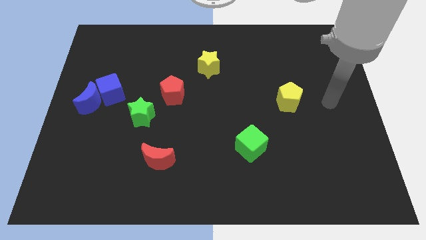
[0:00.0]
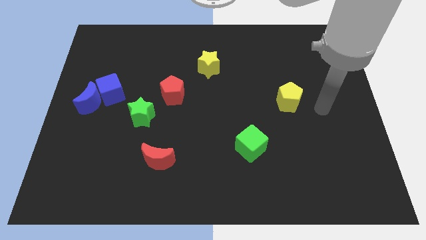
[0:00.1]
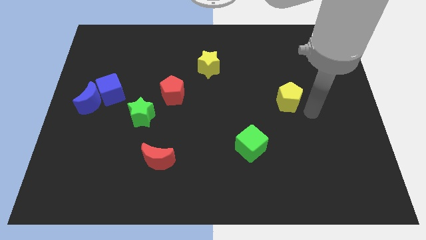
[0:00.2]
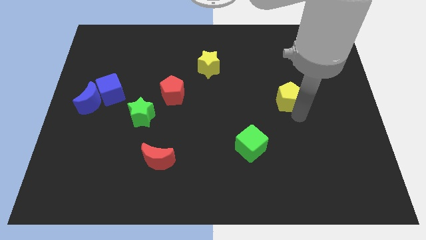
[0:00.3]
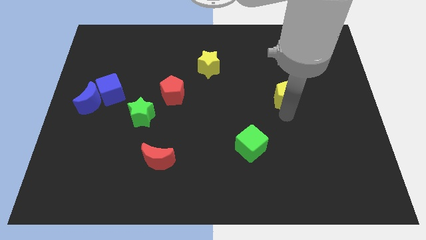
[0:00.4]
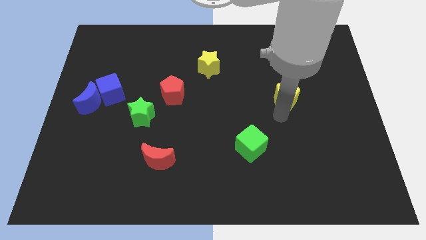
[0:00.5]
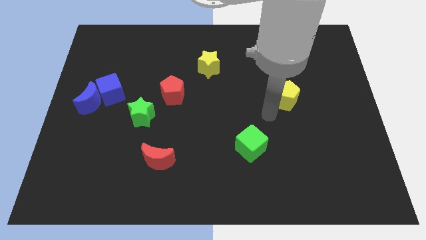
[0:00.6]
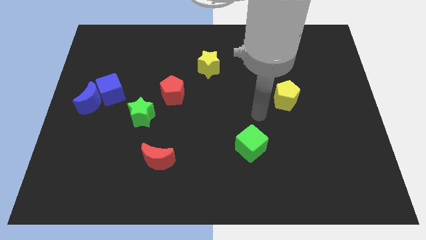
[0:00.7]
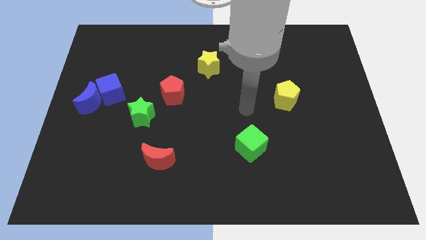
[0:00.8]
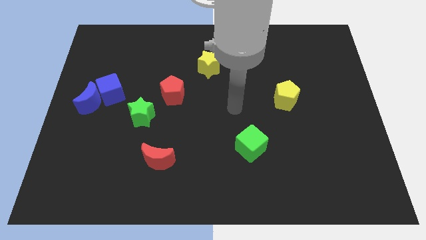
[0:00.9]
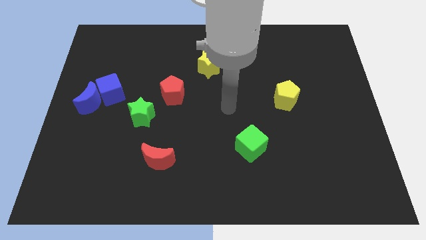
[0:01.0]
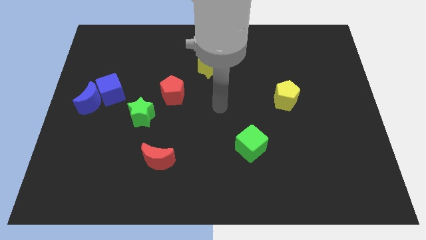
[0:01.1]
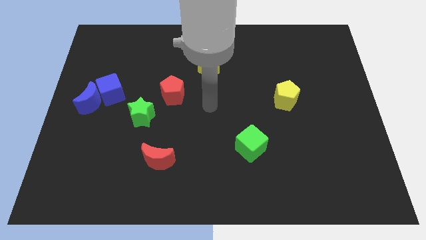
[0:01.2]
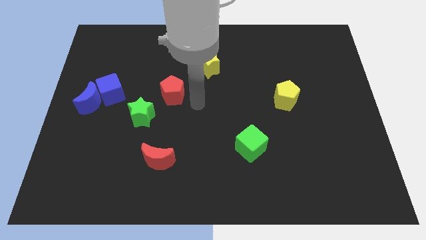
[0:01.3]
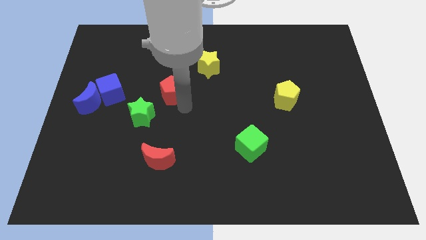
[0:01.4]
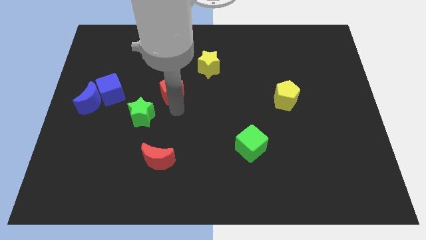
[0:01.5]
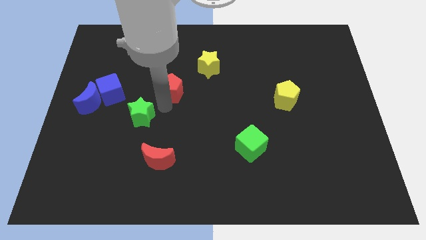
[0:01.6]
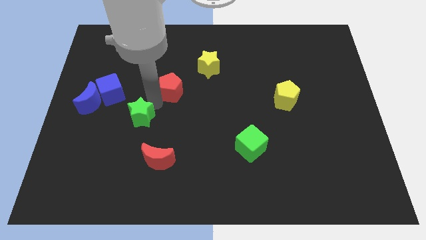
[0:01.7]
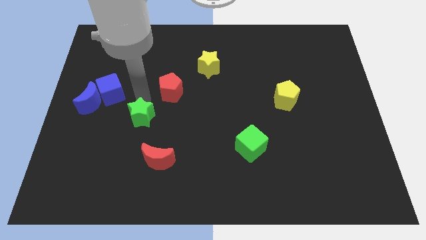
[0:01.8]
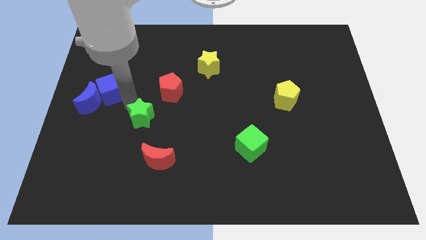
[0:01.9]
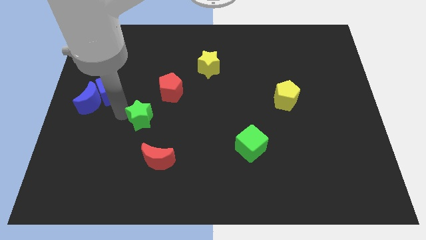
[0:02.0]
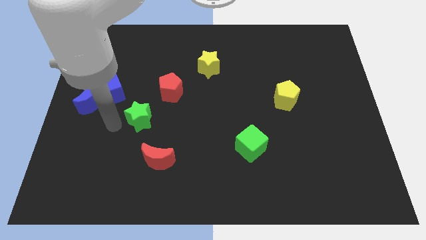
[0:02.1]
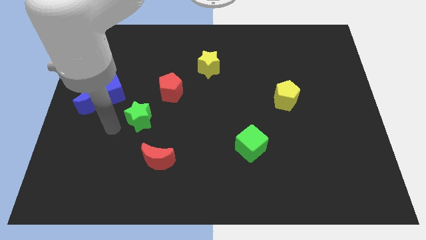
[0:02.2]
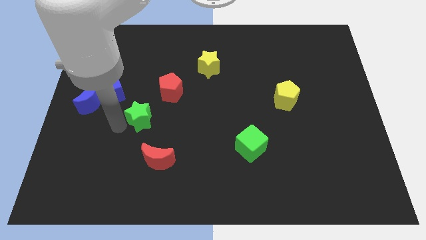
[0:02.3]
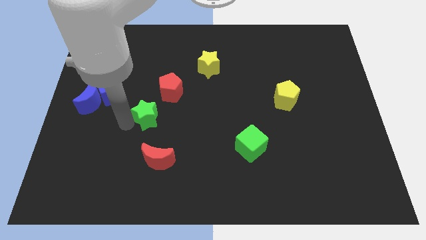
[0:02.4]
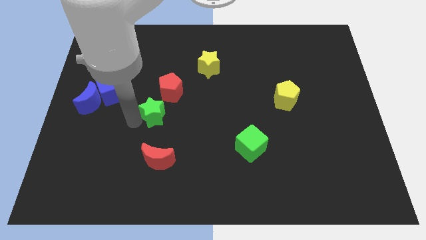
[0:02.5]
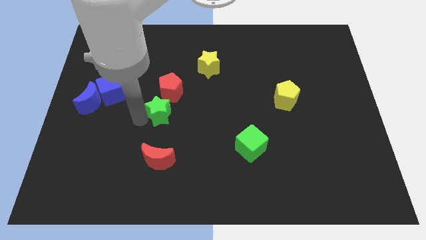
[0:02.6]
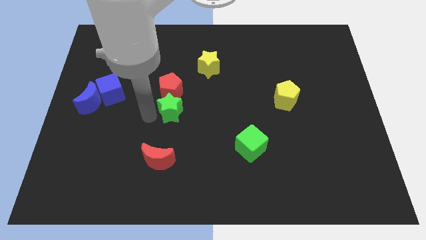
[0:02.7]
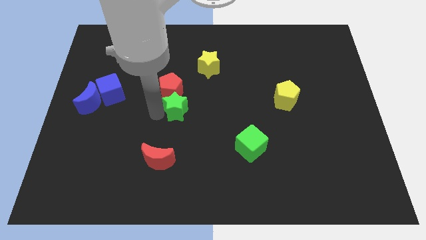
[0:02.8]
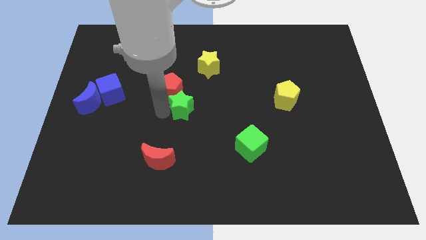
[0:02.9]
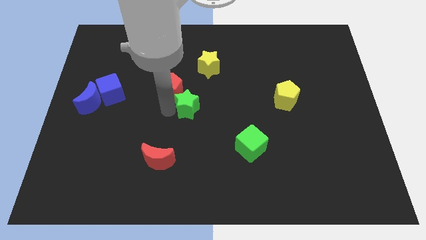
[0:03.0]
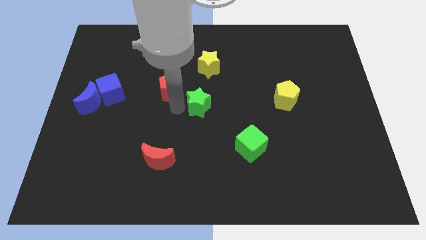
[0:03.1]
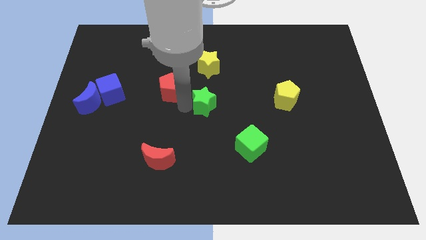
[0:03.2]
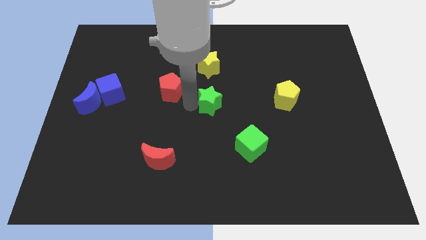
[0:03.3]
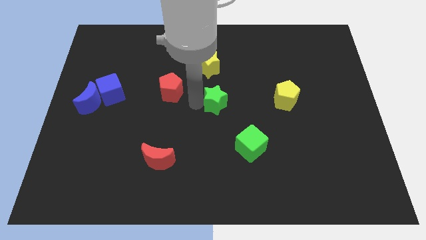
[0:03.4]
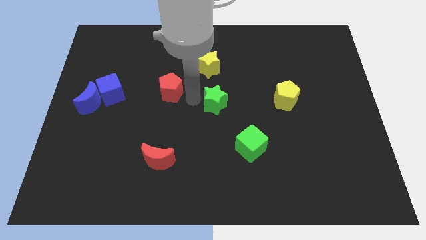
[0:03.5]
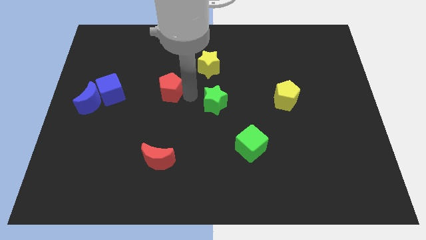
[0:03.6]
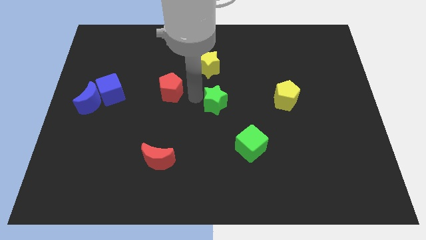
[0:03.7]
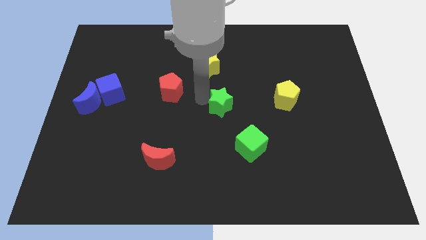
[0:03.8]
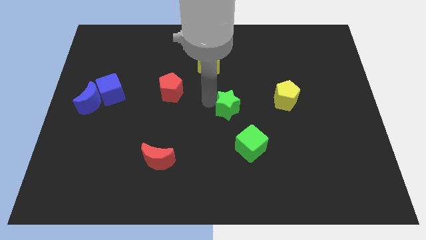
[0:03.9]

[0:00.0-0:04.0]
push the green star right

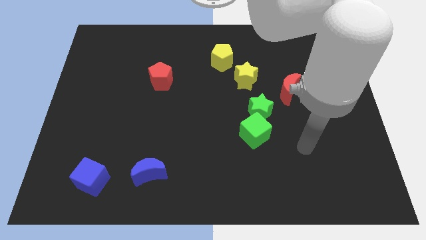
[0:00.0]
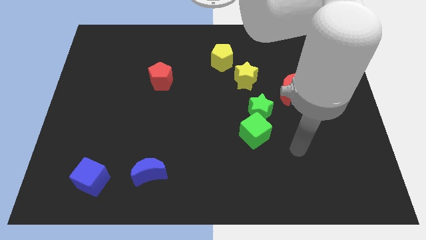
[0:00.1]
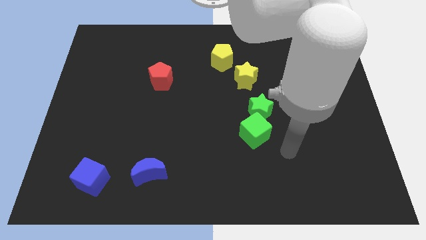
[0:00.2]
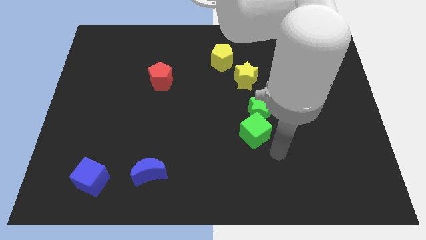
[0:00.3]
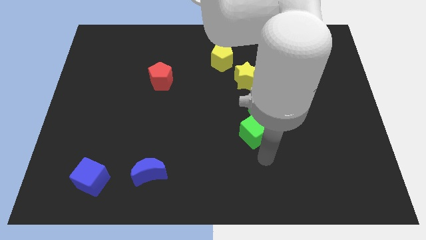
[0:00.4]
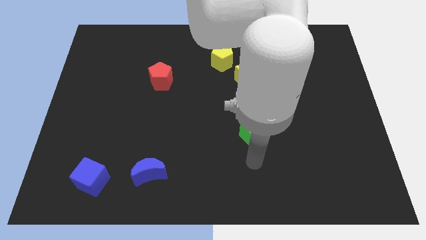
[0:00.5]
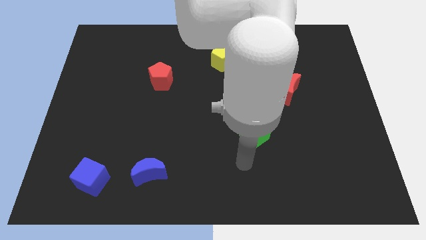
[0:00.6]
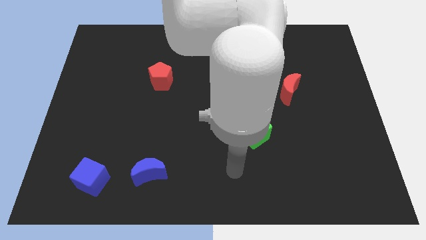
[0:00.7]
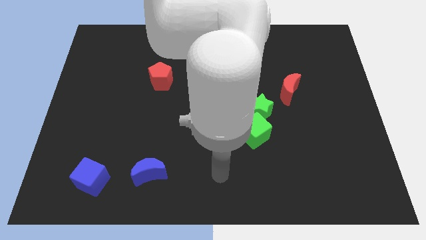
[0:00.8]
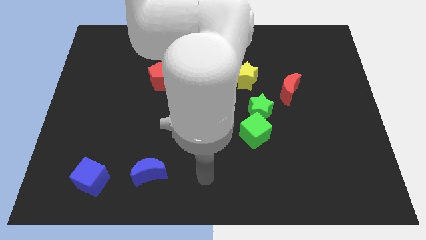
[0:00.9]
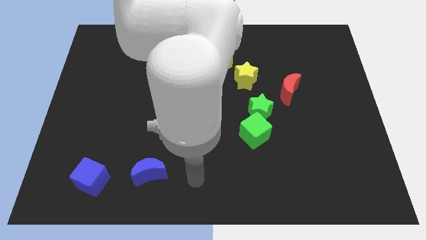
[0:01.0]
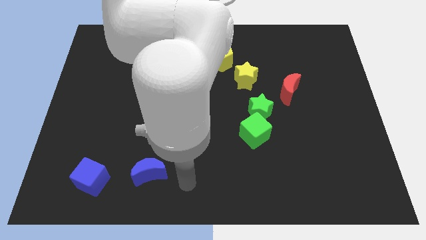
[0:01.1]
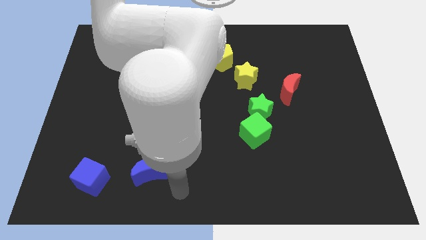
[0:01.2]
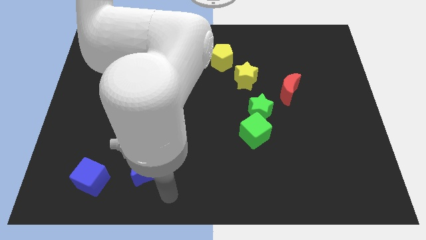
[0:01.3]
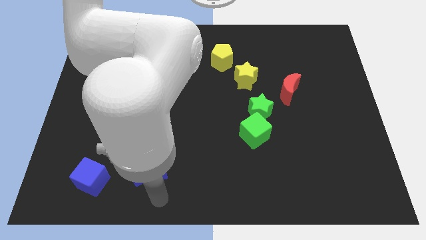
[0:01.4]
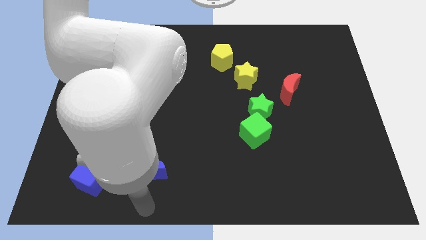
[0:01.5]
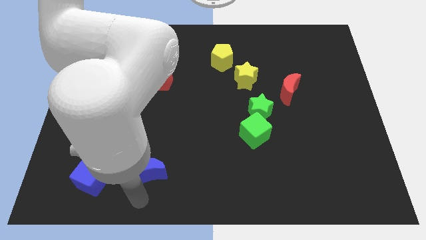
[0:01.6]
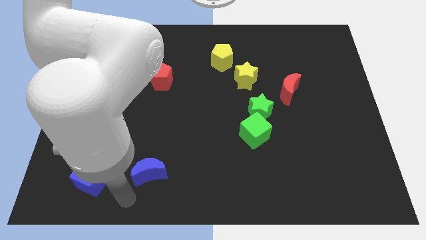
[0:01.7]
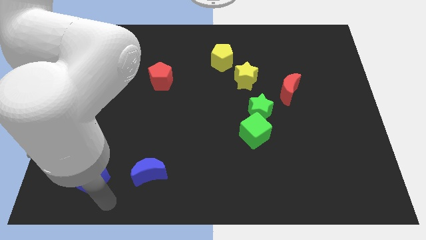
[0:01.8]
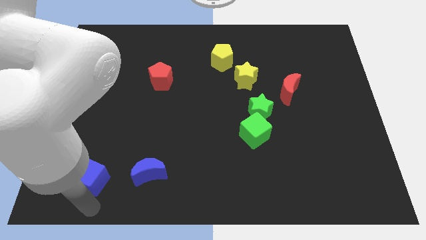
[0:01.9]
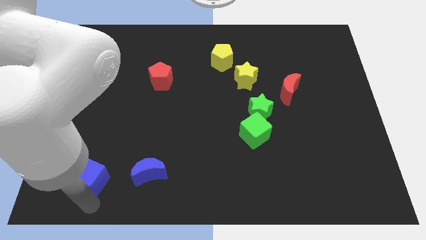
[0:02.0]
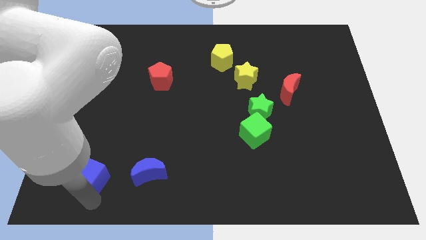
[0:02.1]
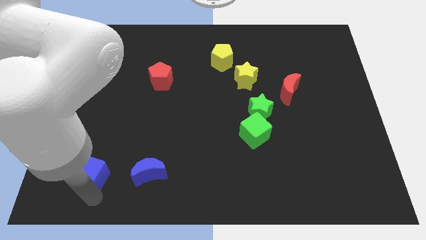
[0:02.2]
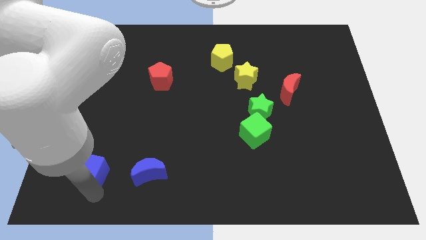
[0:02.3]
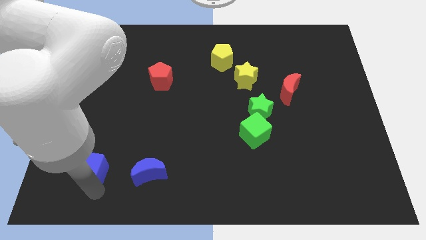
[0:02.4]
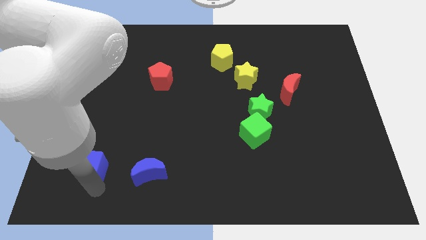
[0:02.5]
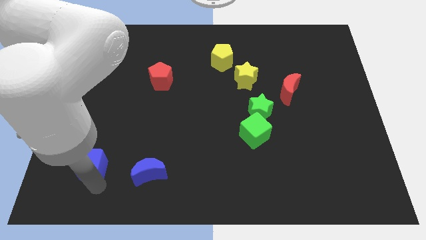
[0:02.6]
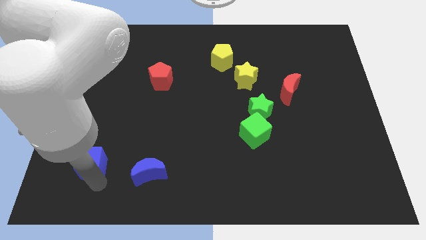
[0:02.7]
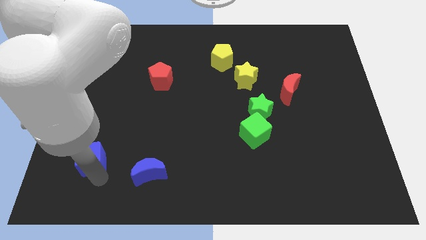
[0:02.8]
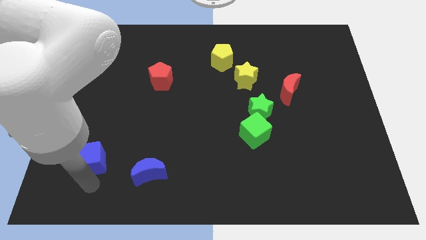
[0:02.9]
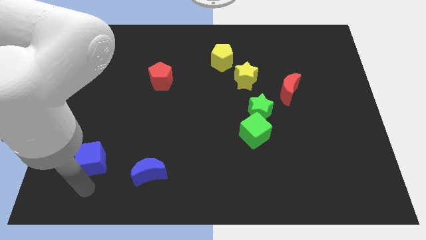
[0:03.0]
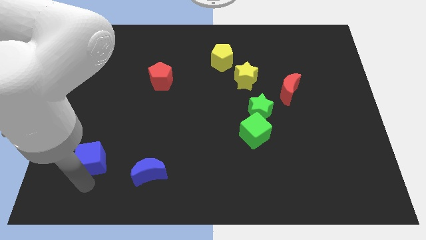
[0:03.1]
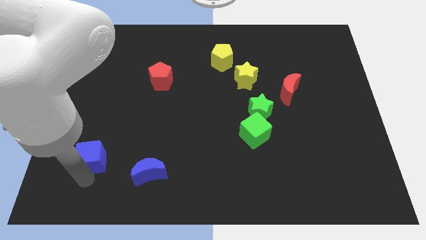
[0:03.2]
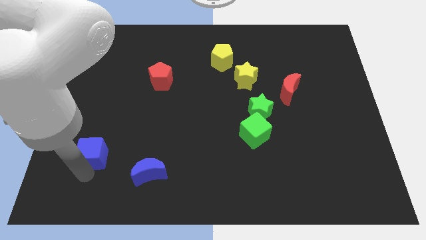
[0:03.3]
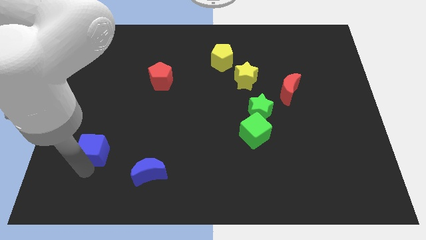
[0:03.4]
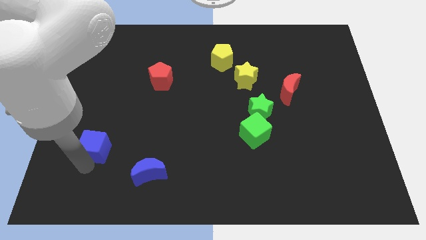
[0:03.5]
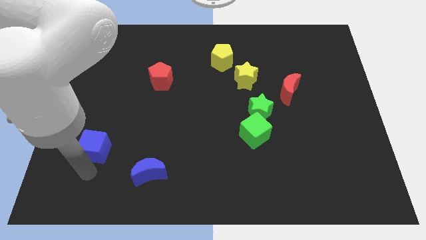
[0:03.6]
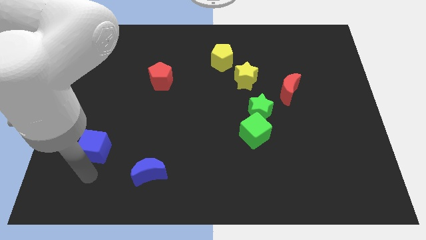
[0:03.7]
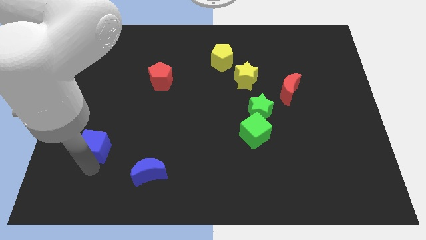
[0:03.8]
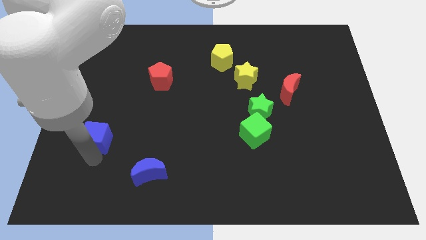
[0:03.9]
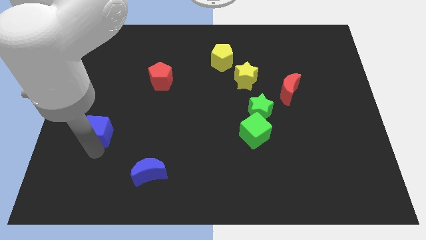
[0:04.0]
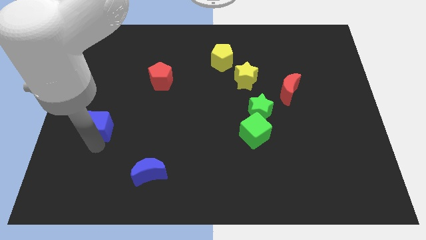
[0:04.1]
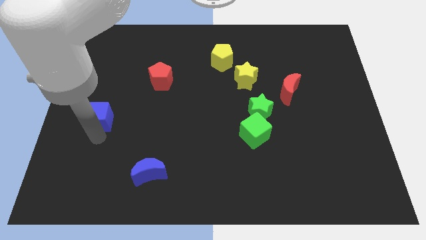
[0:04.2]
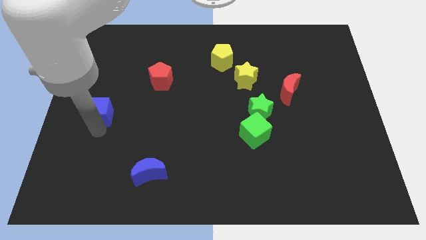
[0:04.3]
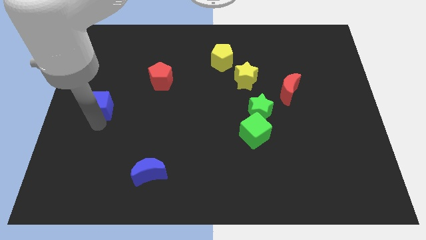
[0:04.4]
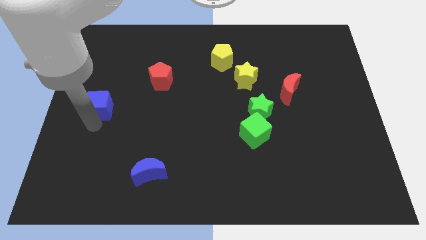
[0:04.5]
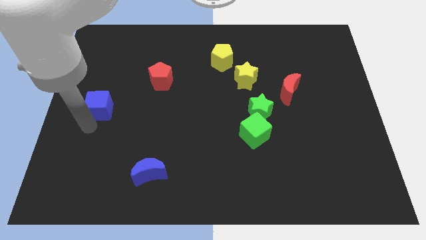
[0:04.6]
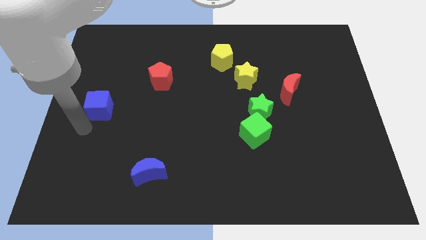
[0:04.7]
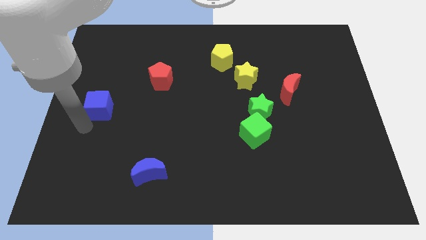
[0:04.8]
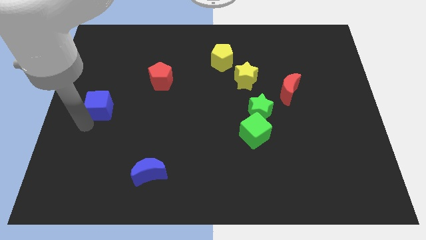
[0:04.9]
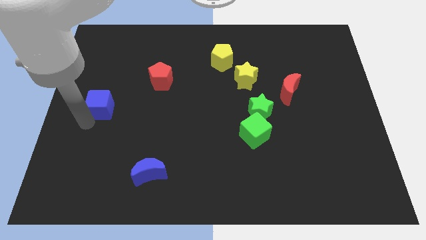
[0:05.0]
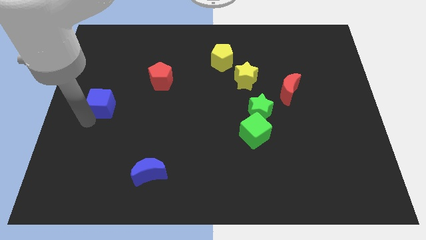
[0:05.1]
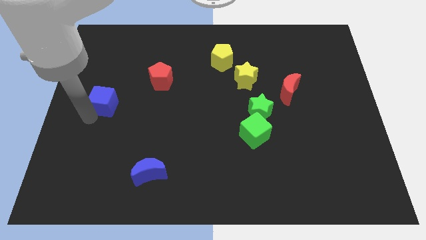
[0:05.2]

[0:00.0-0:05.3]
slide the blue cube upwards
